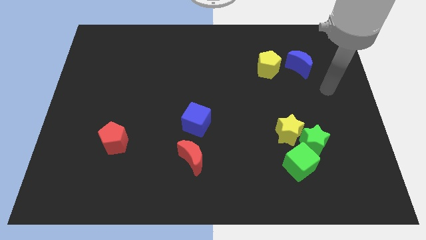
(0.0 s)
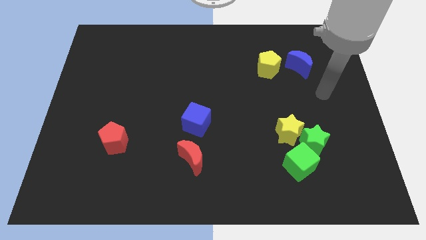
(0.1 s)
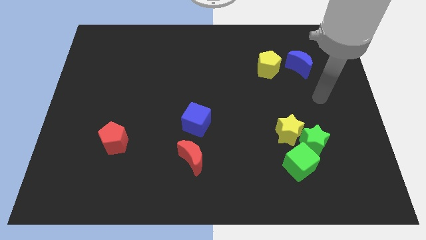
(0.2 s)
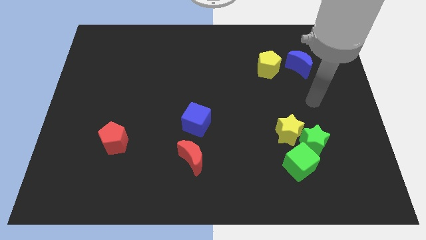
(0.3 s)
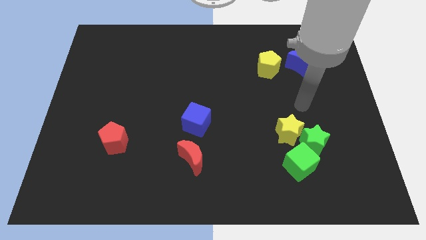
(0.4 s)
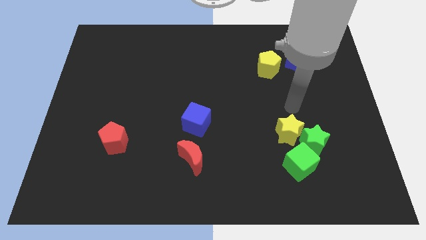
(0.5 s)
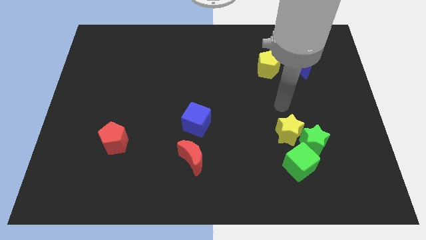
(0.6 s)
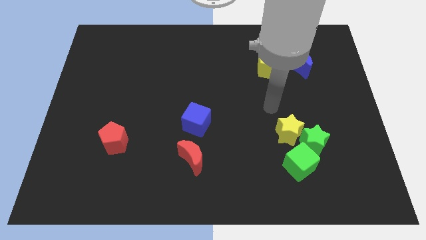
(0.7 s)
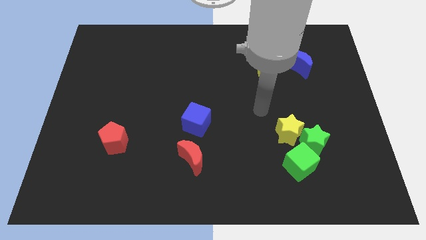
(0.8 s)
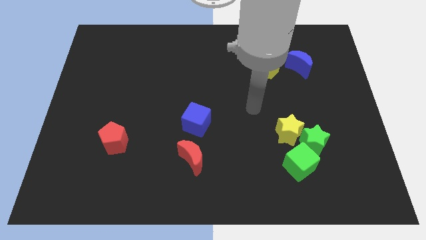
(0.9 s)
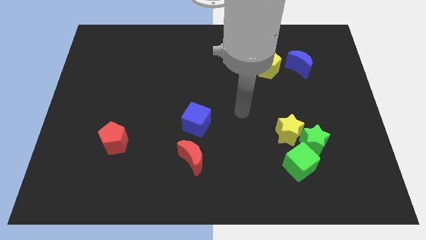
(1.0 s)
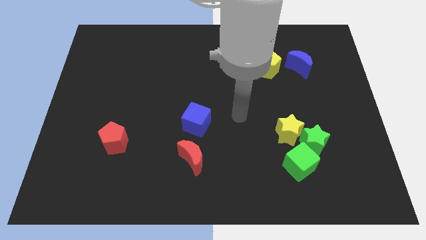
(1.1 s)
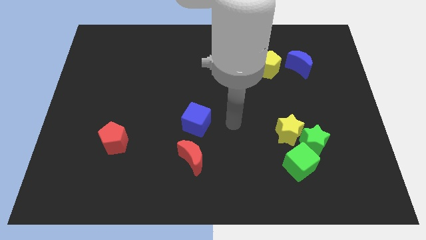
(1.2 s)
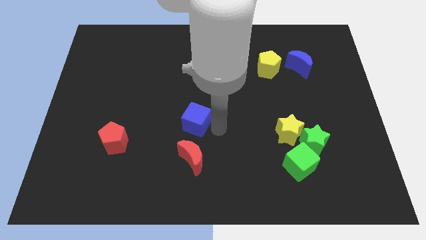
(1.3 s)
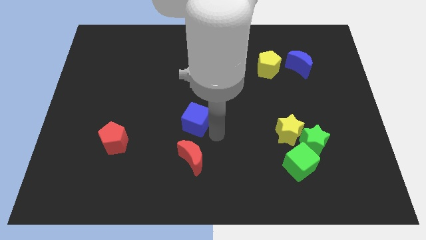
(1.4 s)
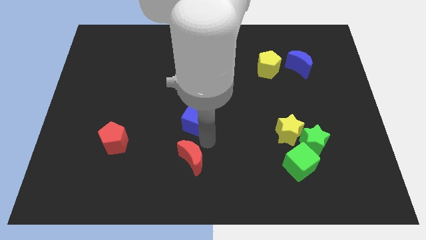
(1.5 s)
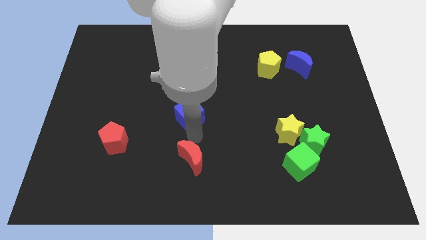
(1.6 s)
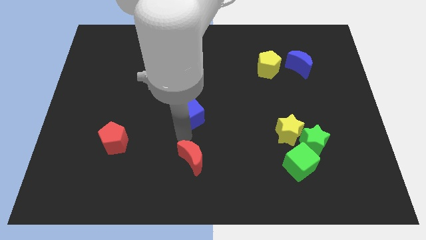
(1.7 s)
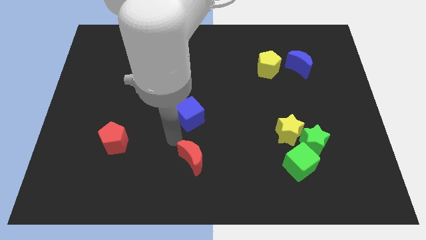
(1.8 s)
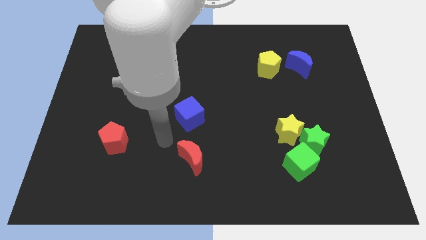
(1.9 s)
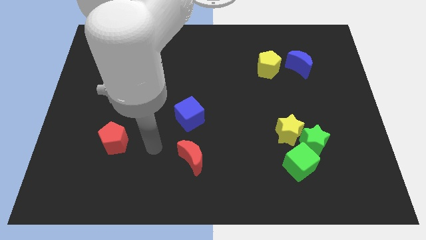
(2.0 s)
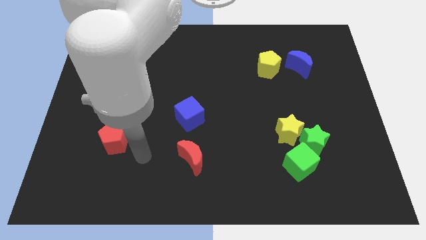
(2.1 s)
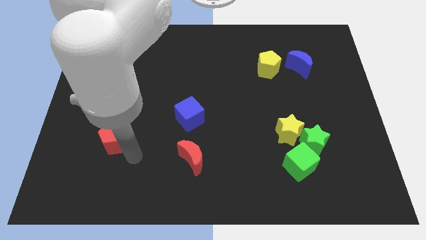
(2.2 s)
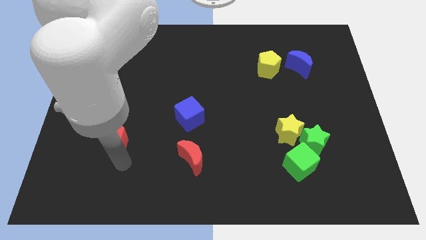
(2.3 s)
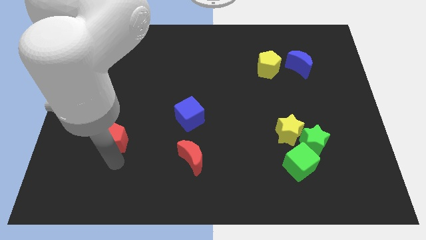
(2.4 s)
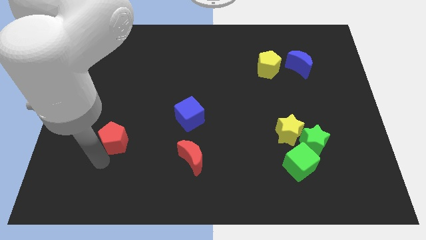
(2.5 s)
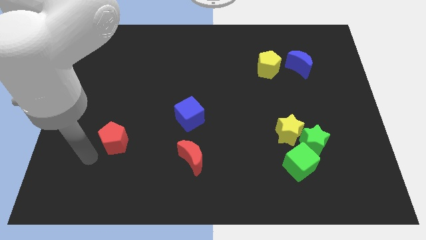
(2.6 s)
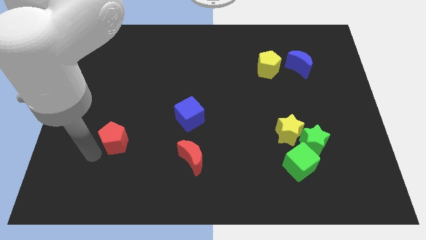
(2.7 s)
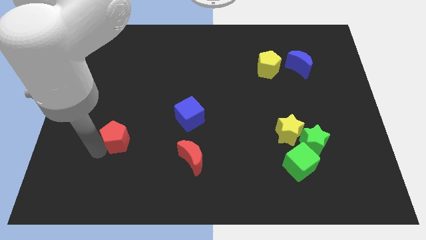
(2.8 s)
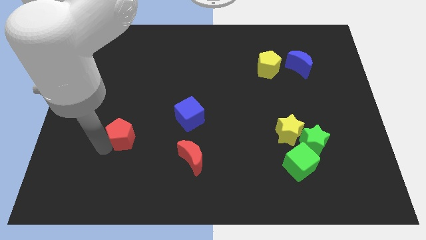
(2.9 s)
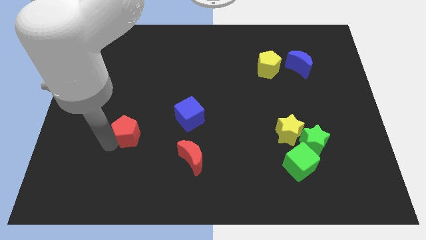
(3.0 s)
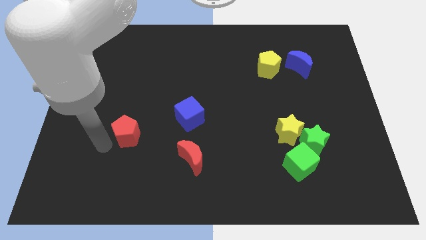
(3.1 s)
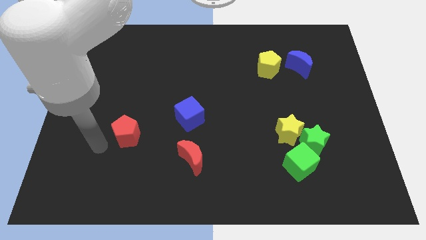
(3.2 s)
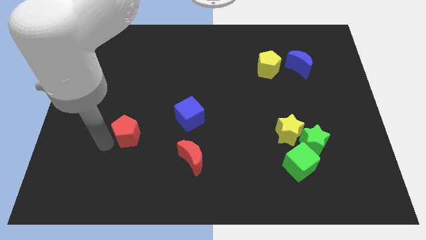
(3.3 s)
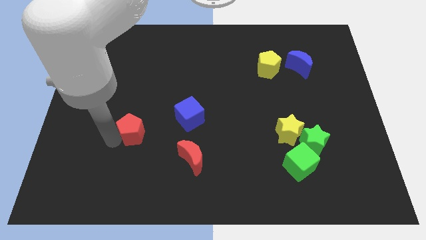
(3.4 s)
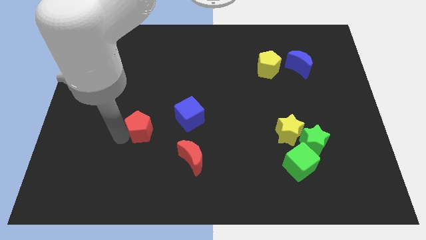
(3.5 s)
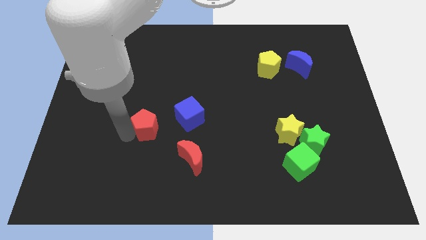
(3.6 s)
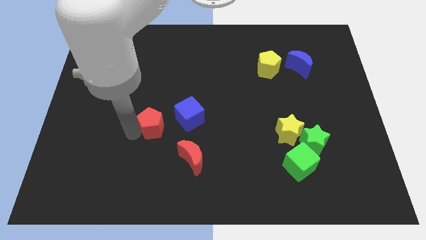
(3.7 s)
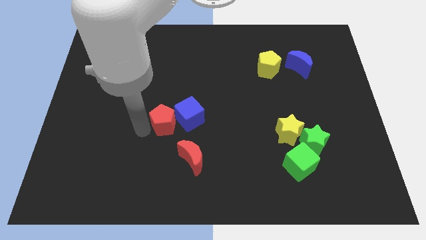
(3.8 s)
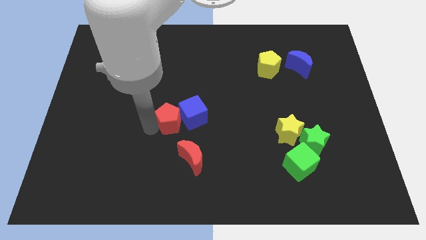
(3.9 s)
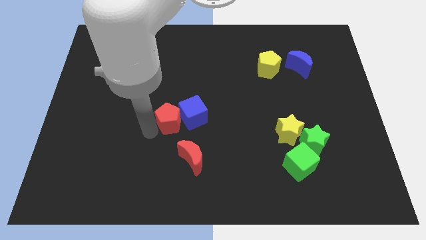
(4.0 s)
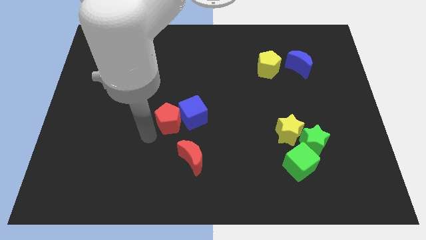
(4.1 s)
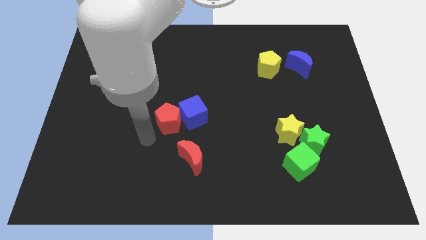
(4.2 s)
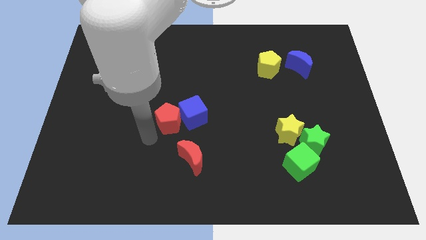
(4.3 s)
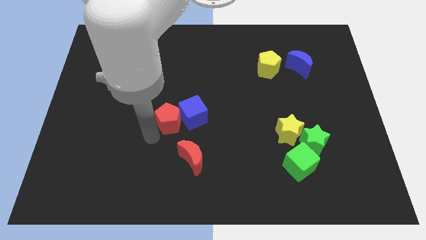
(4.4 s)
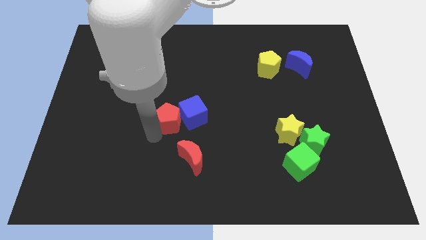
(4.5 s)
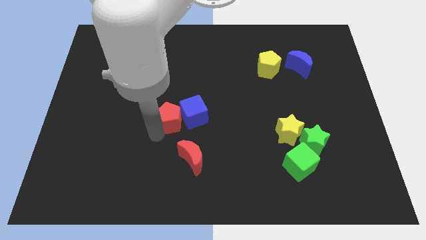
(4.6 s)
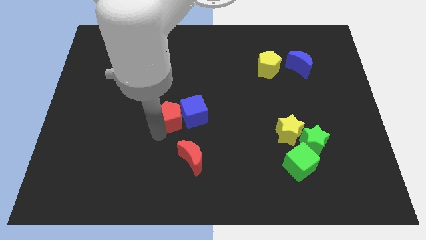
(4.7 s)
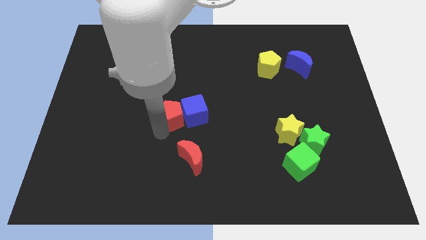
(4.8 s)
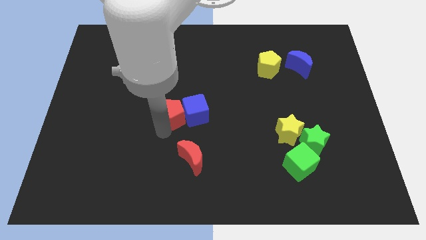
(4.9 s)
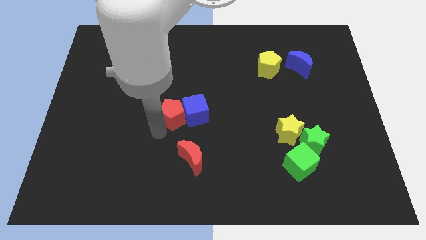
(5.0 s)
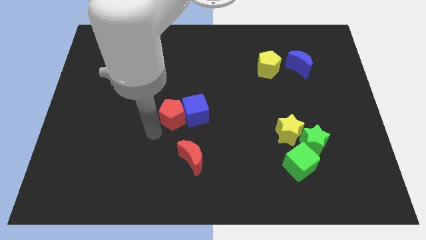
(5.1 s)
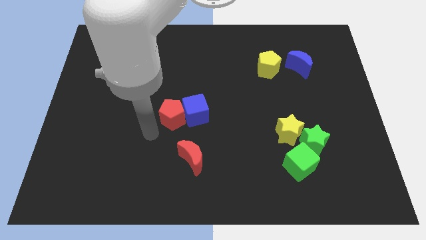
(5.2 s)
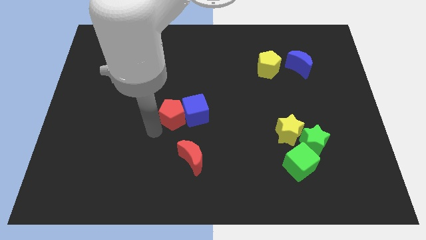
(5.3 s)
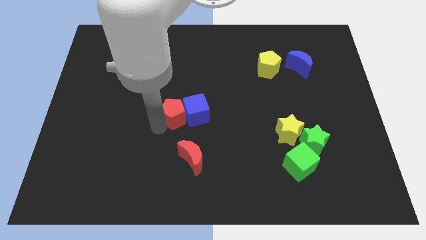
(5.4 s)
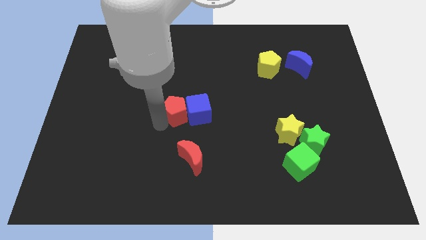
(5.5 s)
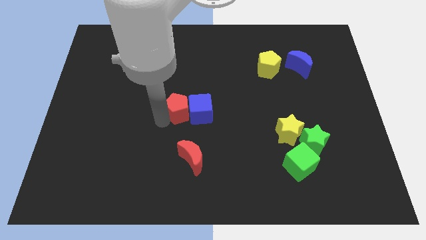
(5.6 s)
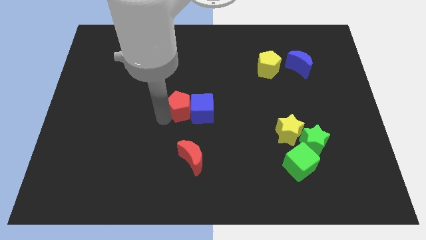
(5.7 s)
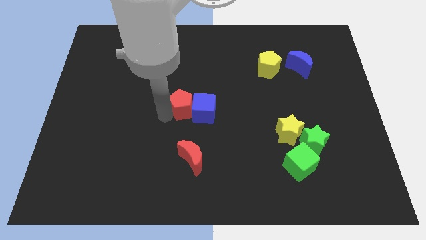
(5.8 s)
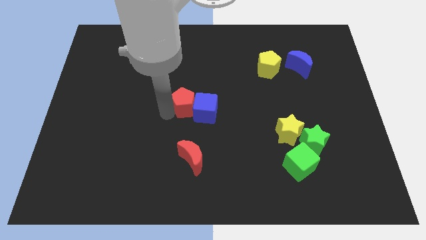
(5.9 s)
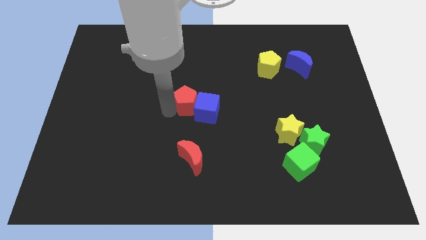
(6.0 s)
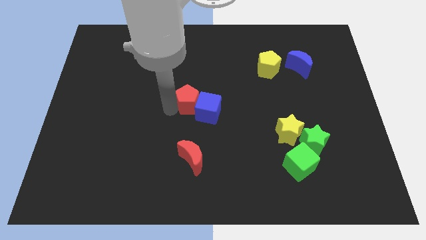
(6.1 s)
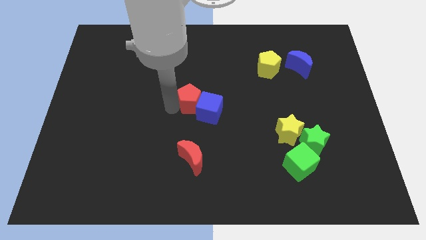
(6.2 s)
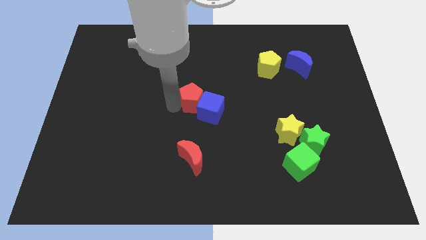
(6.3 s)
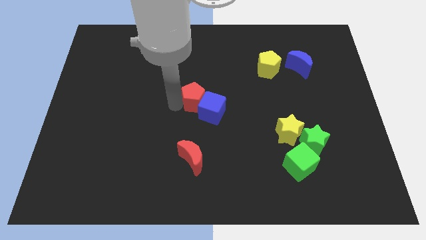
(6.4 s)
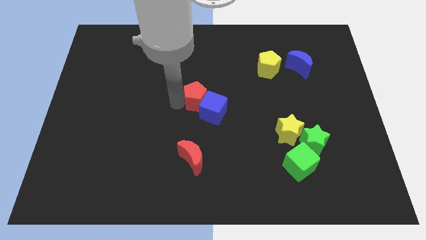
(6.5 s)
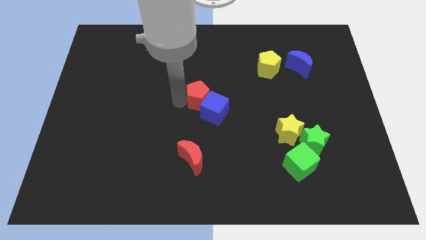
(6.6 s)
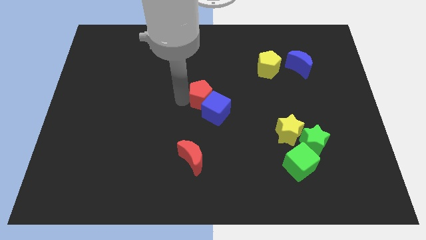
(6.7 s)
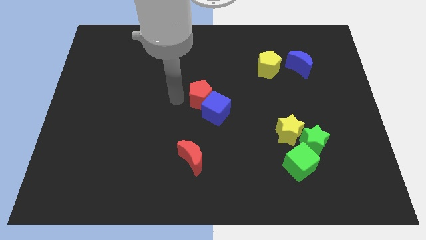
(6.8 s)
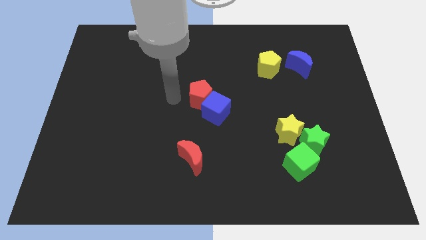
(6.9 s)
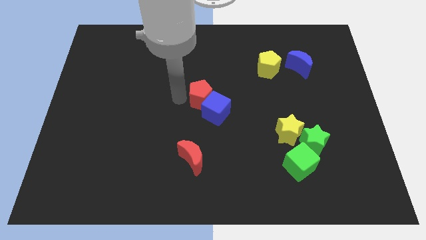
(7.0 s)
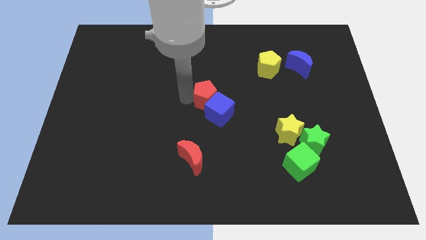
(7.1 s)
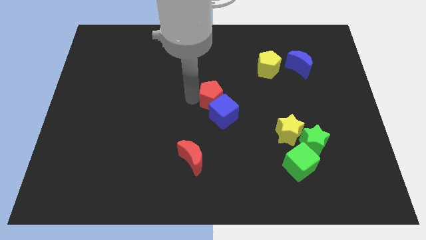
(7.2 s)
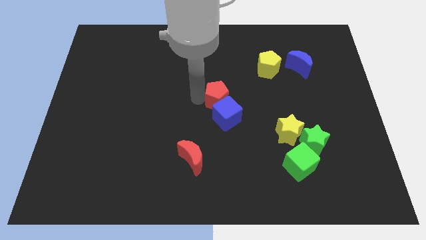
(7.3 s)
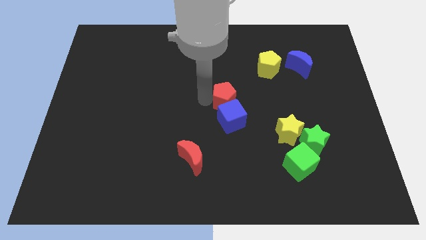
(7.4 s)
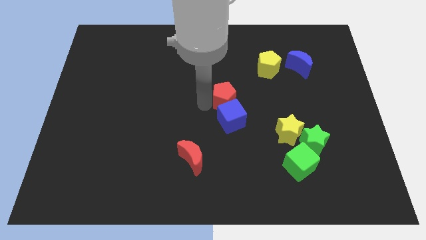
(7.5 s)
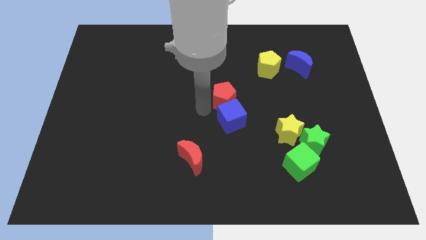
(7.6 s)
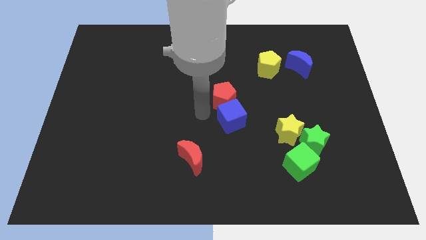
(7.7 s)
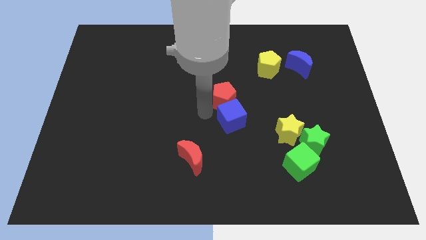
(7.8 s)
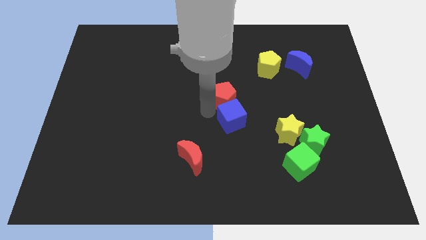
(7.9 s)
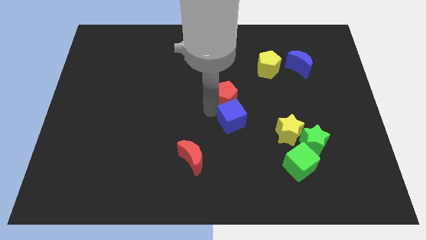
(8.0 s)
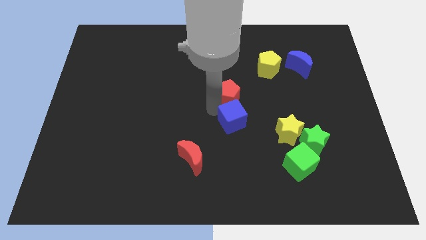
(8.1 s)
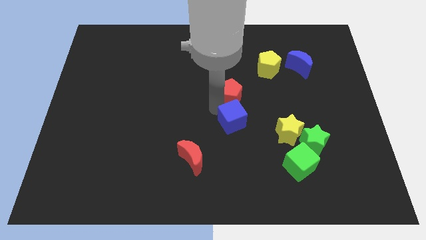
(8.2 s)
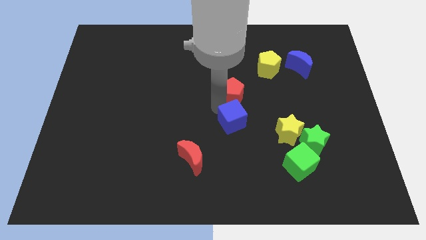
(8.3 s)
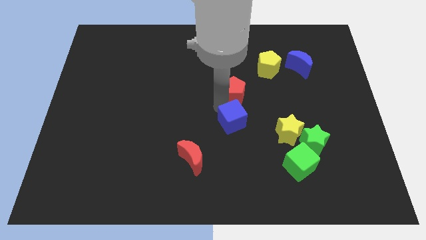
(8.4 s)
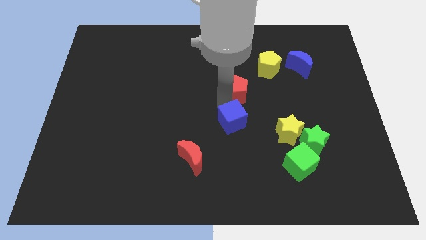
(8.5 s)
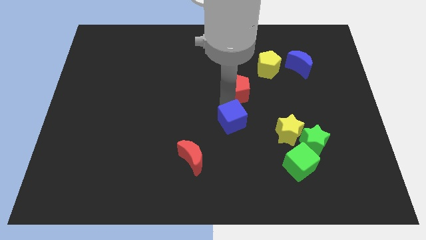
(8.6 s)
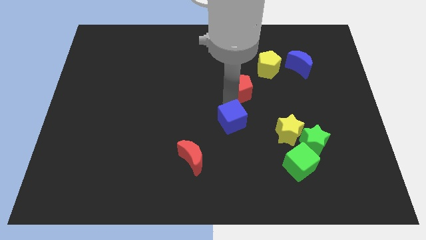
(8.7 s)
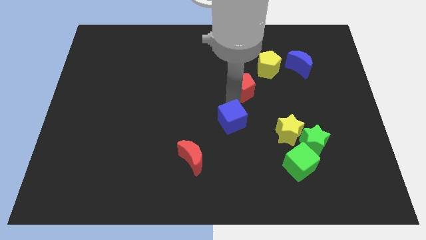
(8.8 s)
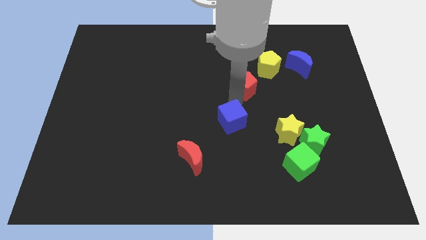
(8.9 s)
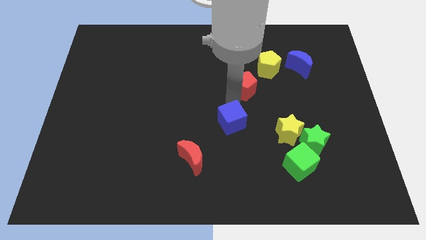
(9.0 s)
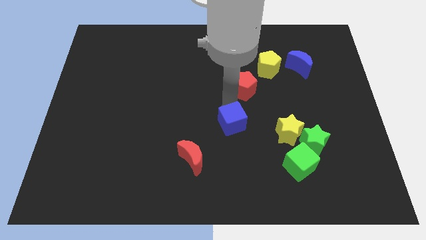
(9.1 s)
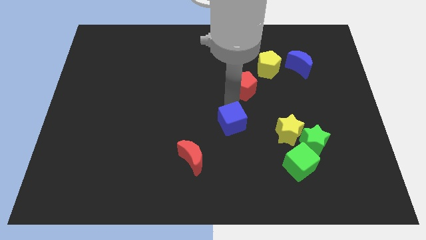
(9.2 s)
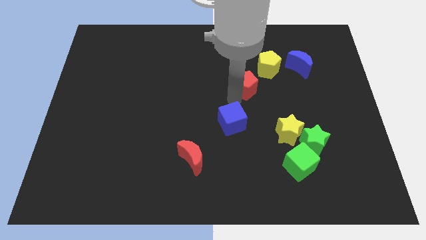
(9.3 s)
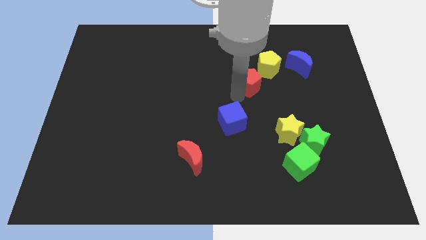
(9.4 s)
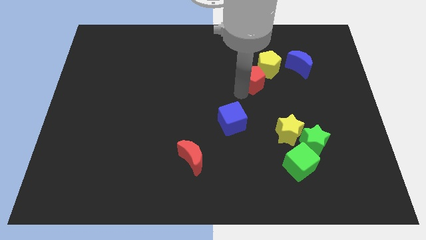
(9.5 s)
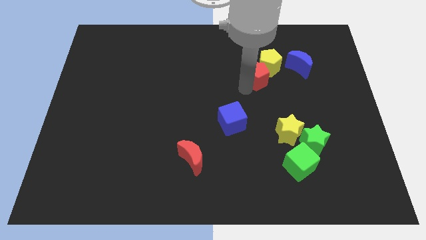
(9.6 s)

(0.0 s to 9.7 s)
push the red pentagon next to the yellow pentagon
